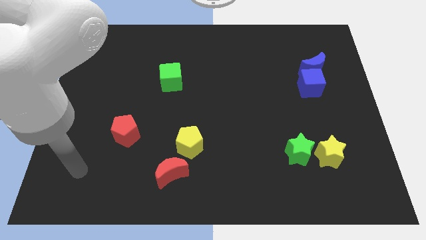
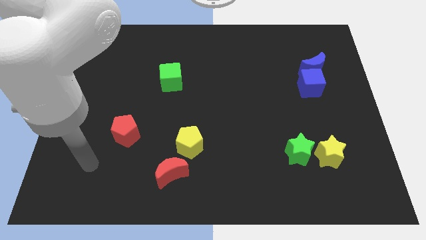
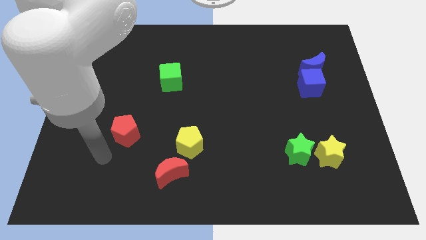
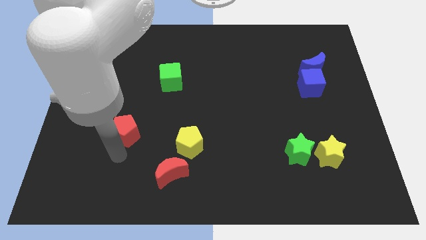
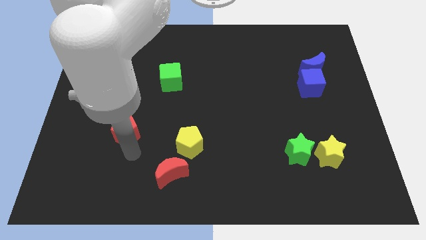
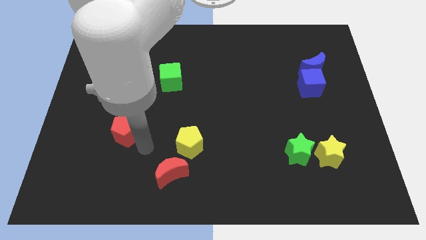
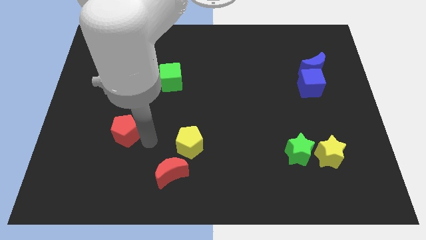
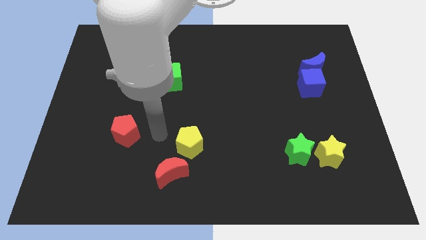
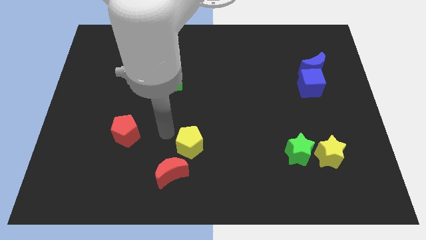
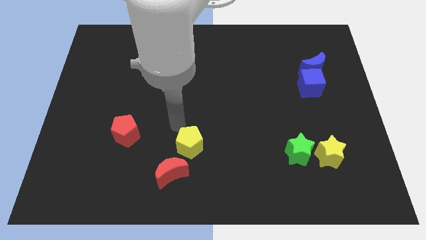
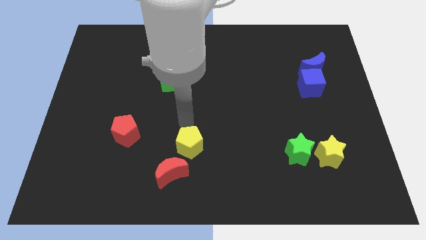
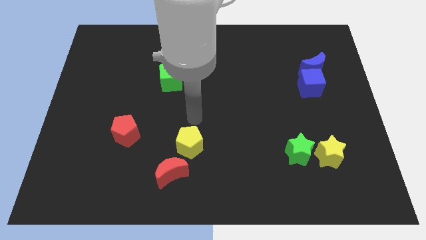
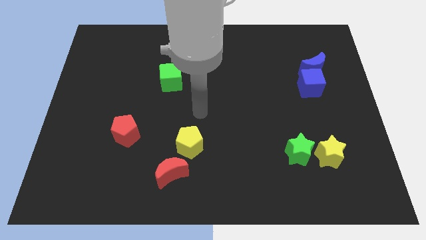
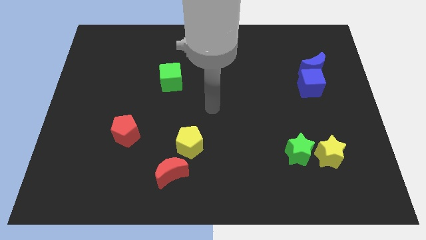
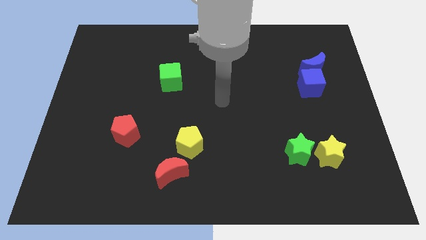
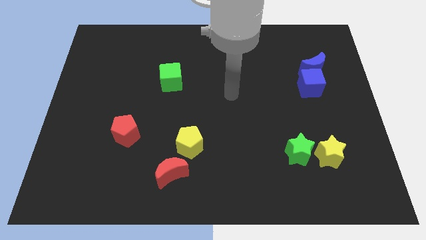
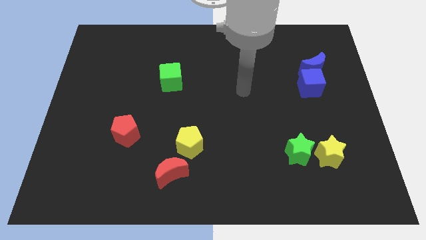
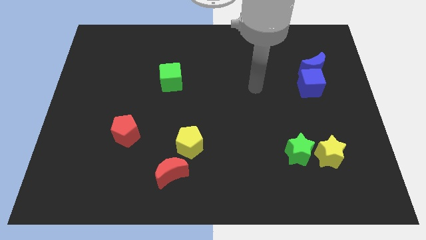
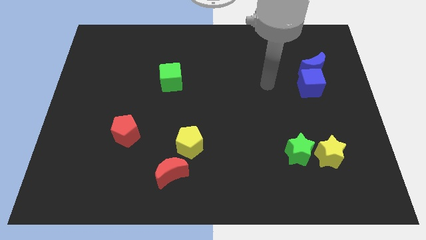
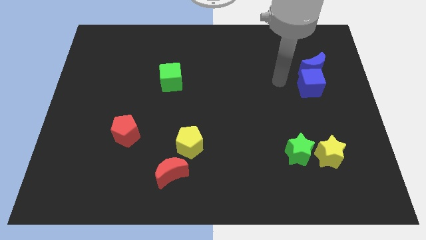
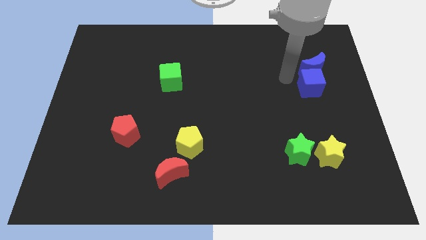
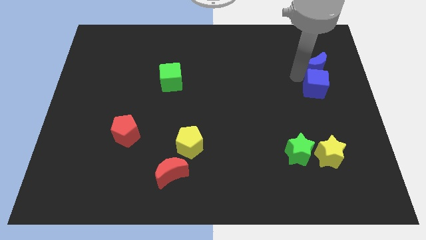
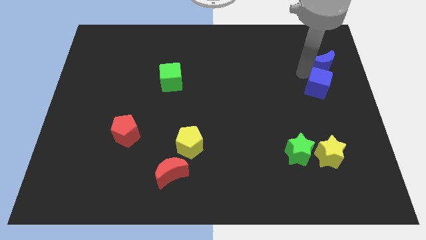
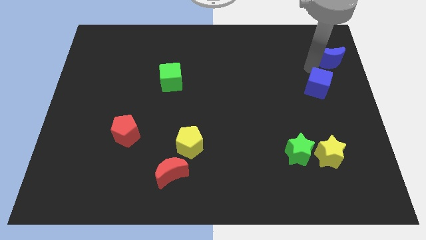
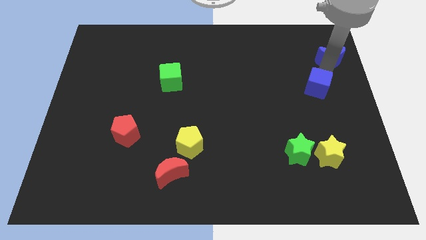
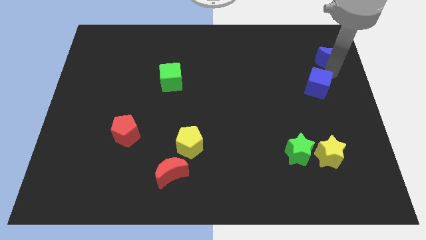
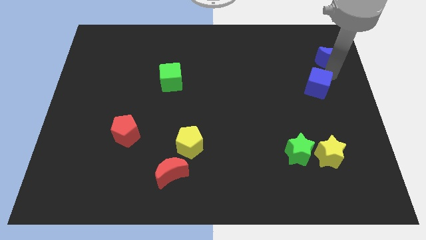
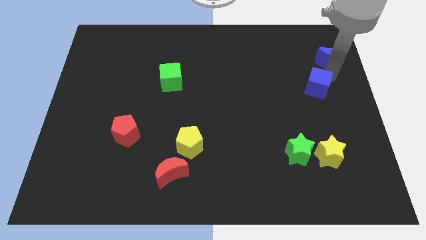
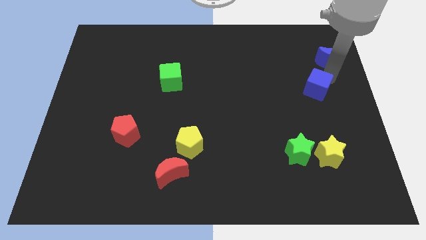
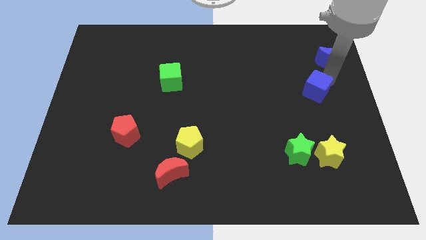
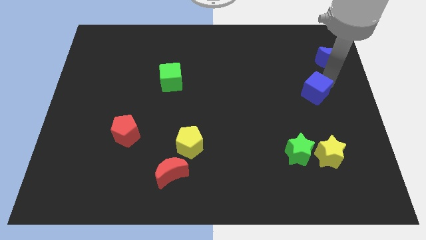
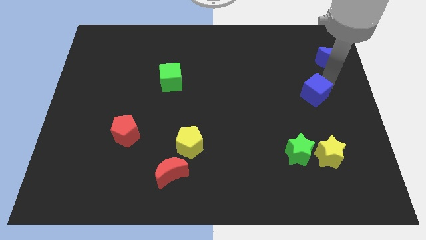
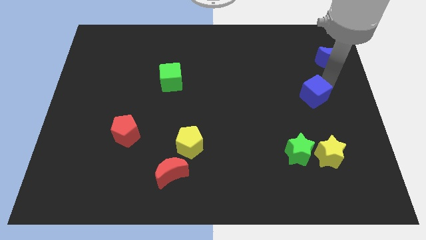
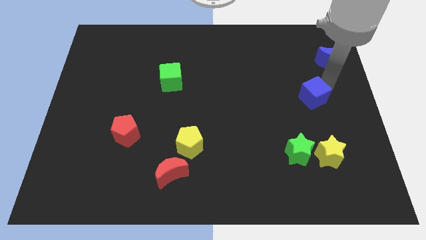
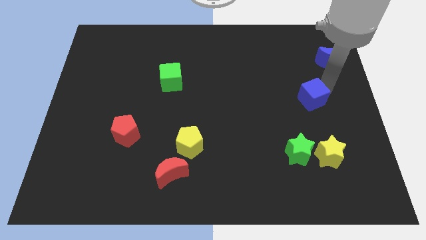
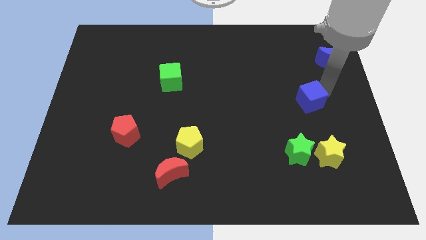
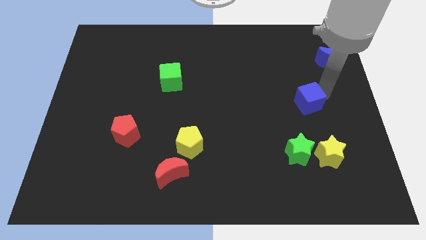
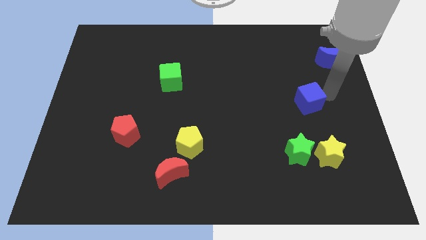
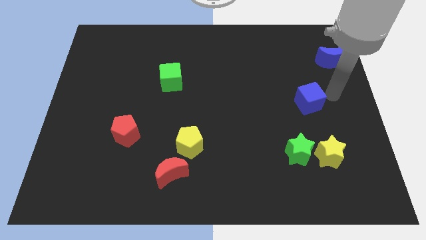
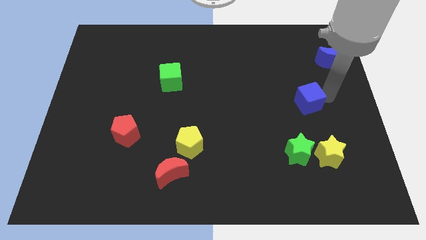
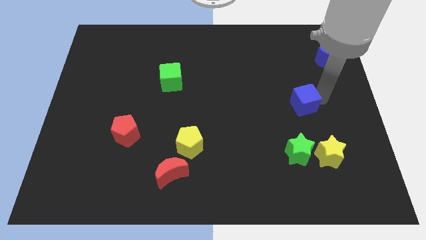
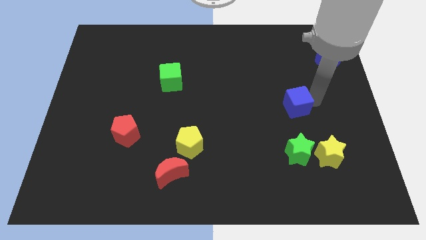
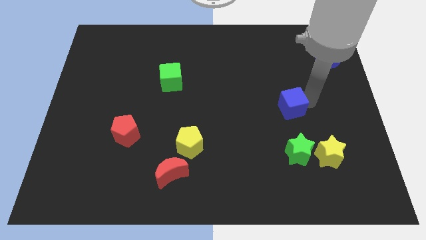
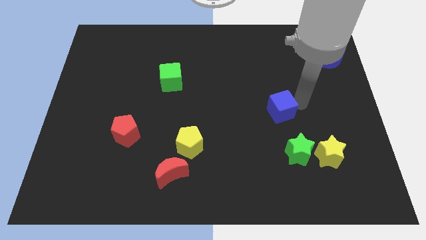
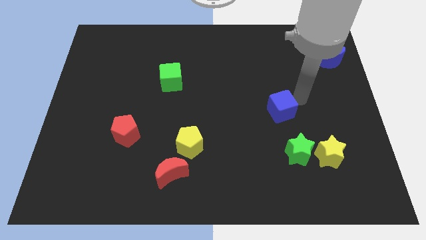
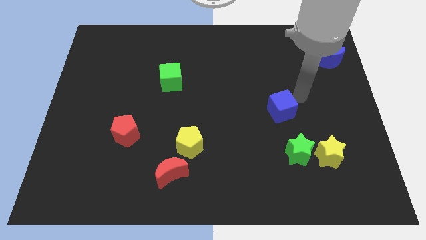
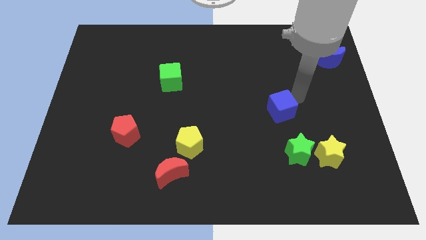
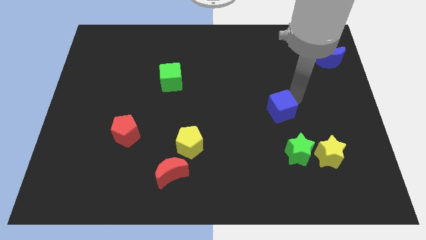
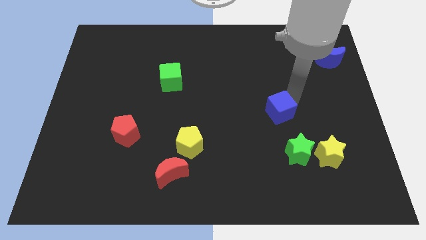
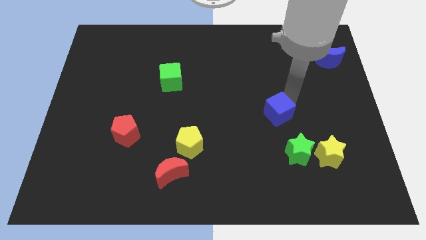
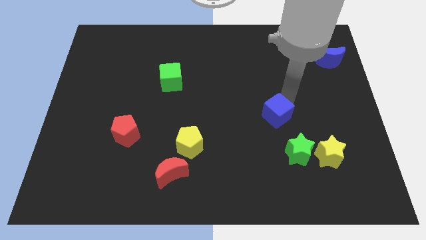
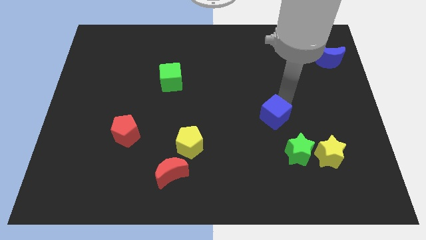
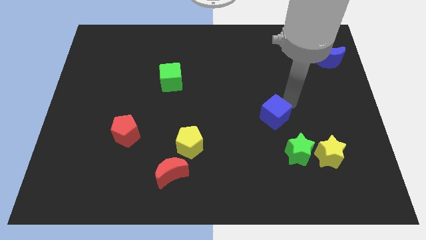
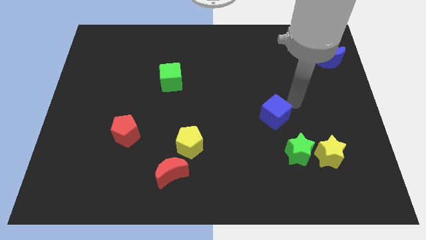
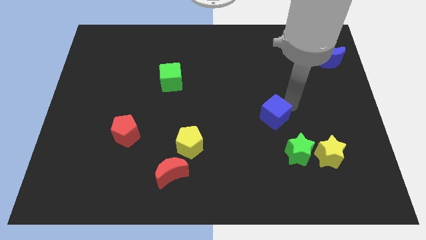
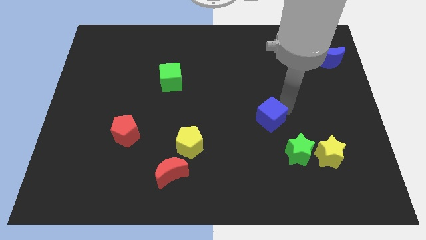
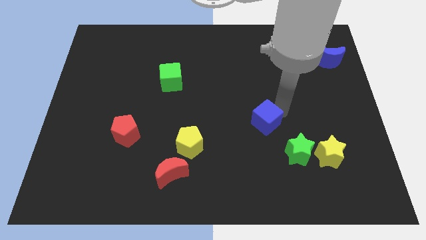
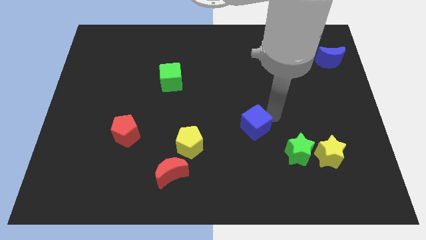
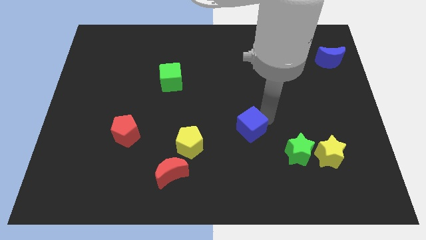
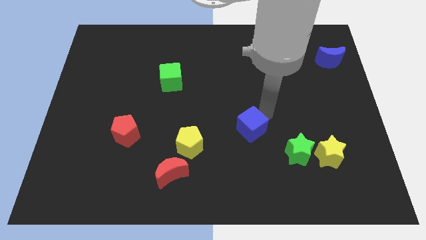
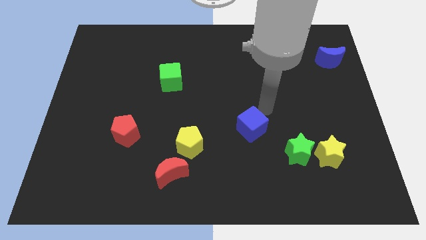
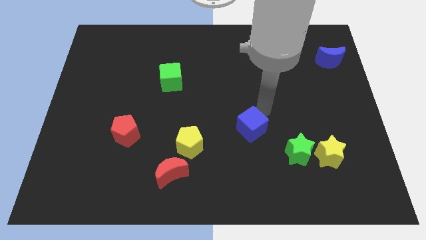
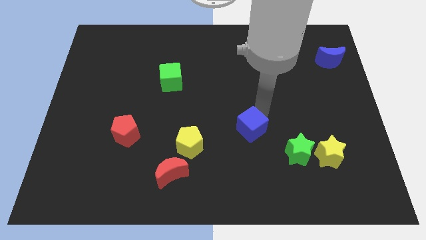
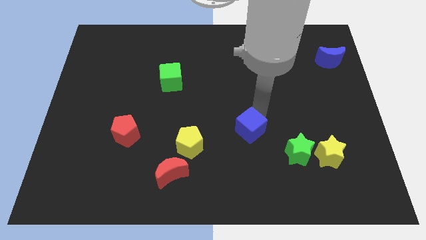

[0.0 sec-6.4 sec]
put the blue cube to the right side of the yellow pentagon
